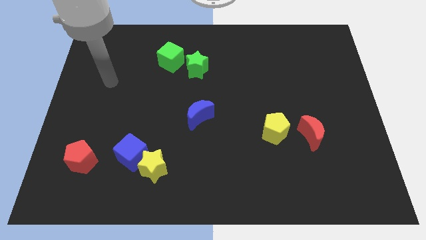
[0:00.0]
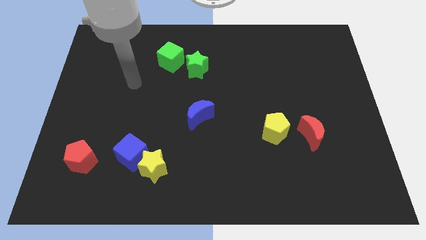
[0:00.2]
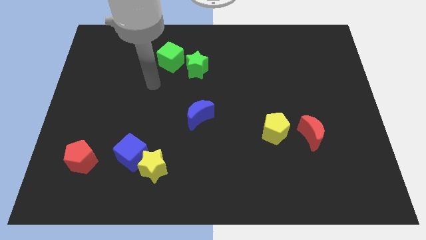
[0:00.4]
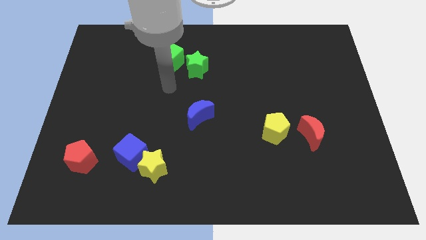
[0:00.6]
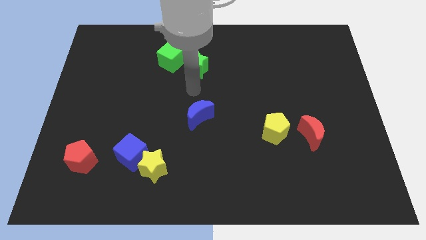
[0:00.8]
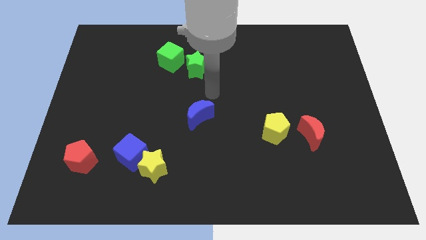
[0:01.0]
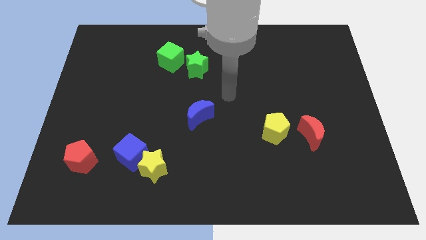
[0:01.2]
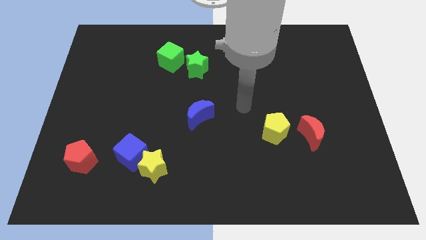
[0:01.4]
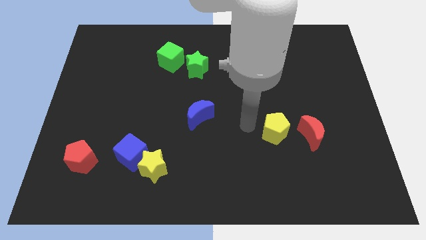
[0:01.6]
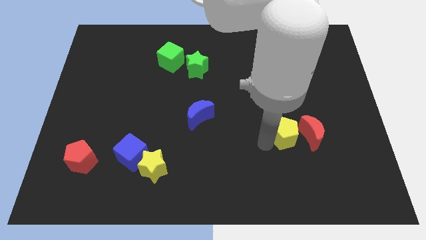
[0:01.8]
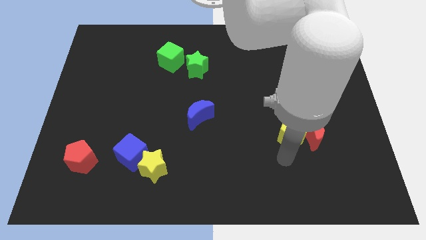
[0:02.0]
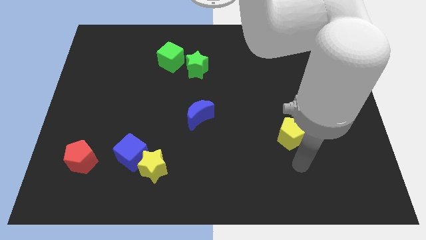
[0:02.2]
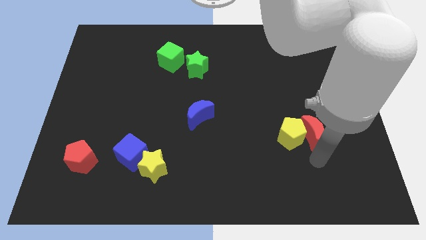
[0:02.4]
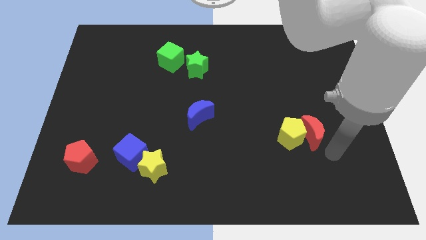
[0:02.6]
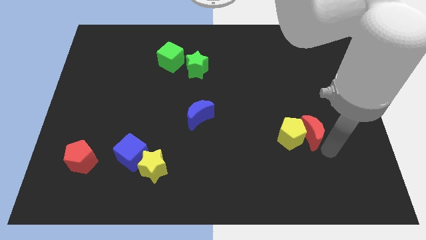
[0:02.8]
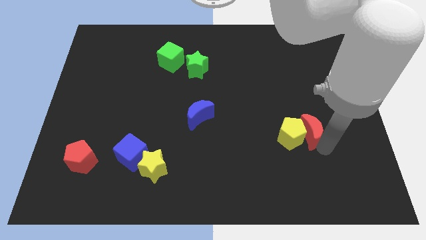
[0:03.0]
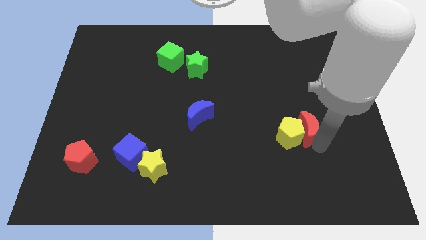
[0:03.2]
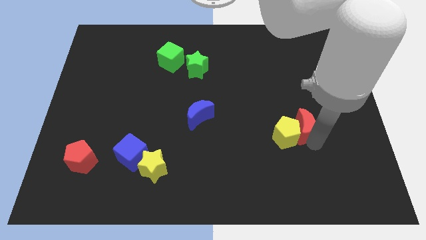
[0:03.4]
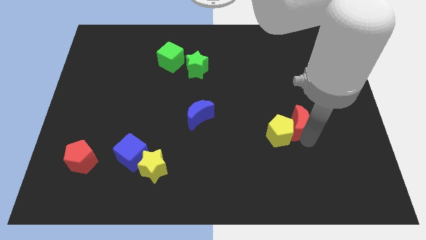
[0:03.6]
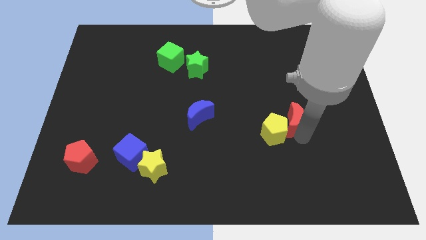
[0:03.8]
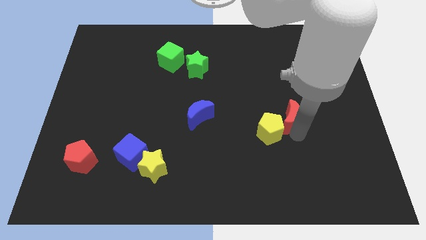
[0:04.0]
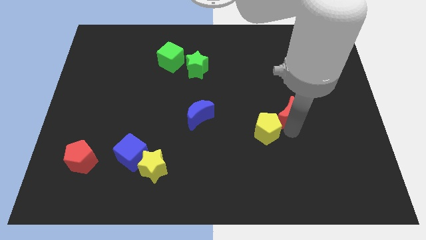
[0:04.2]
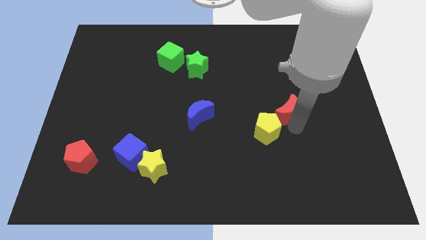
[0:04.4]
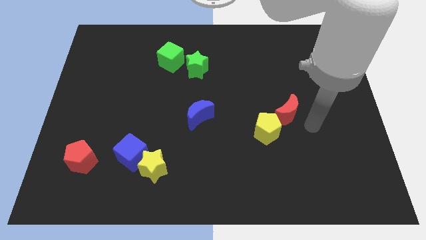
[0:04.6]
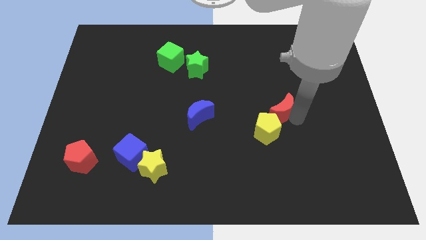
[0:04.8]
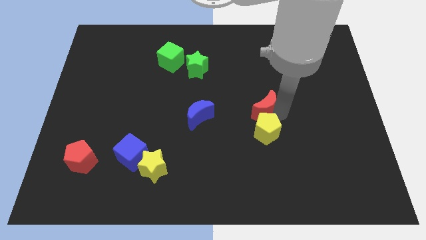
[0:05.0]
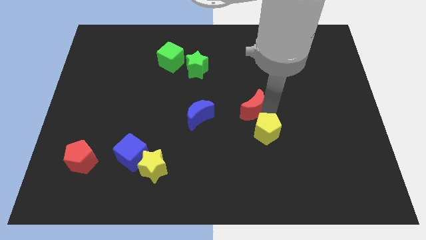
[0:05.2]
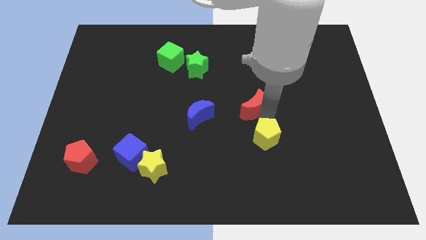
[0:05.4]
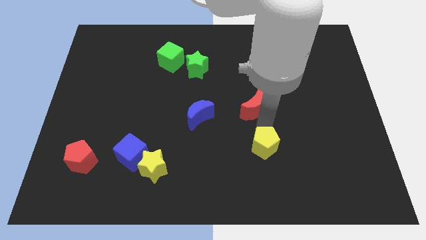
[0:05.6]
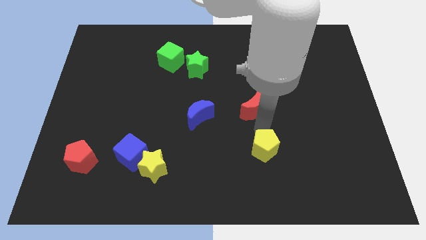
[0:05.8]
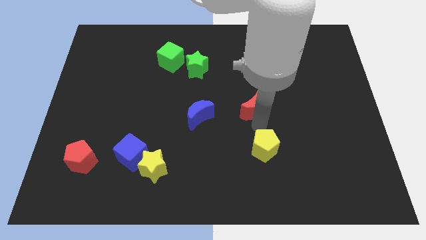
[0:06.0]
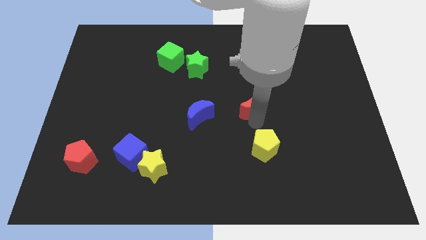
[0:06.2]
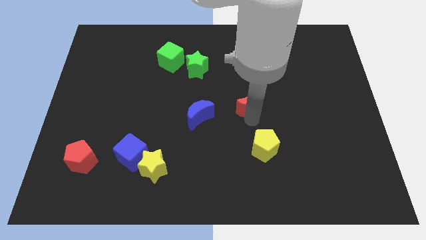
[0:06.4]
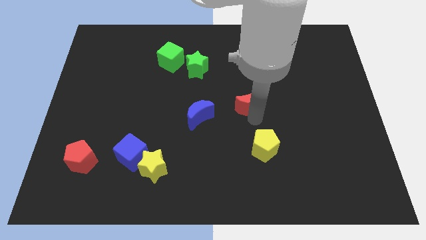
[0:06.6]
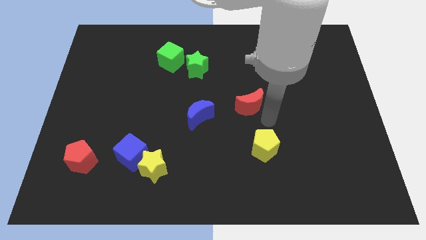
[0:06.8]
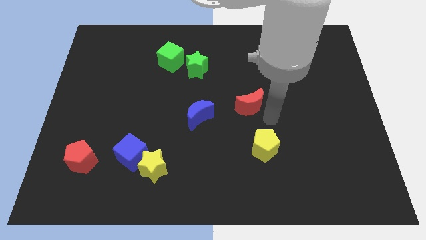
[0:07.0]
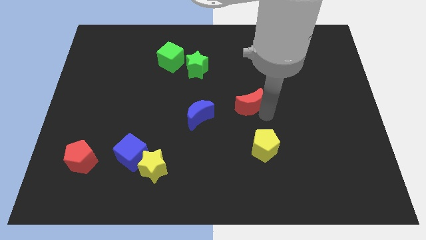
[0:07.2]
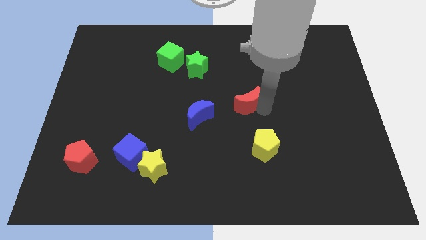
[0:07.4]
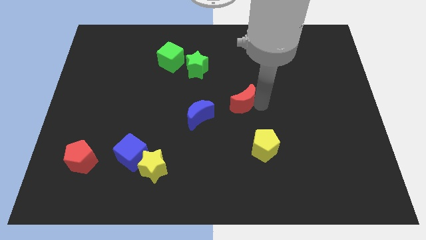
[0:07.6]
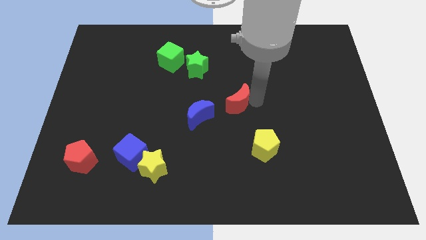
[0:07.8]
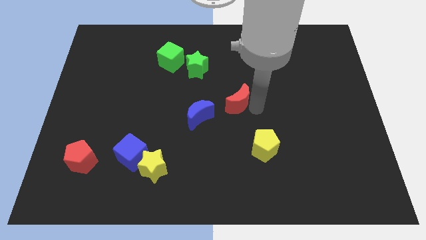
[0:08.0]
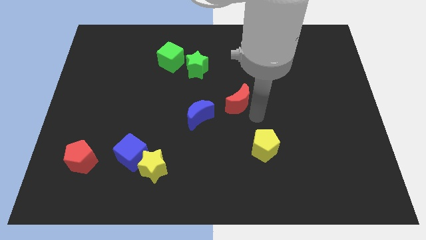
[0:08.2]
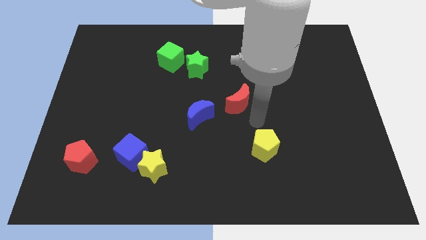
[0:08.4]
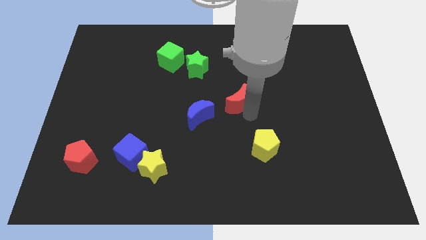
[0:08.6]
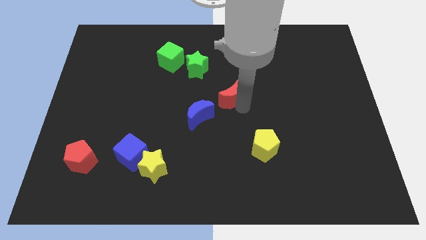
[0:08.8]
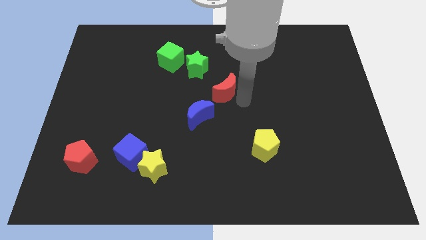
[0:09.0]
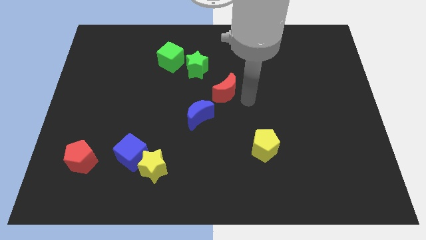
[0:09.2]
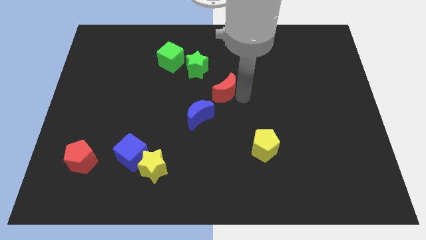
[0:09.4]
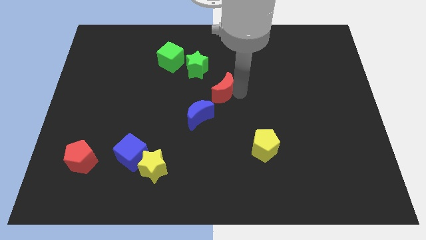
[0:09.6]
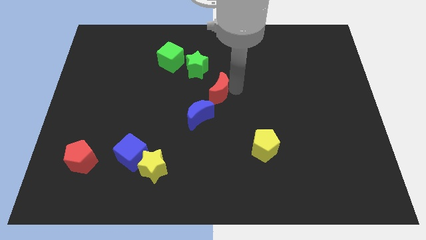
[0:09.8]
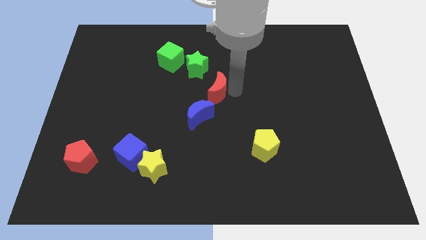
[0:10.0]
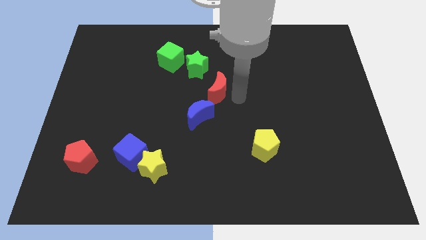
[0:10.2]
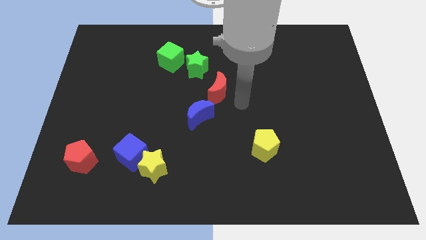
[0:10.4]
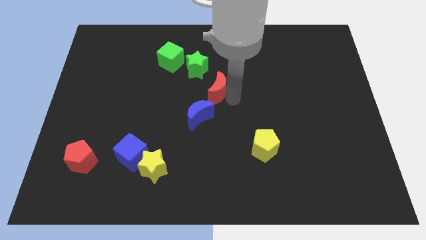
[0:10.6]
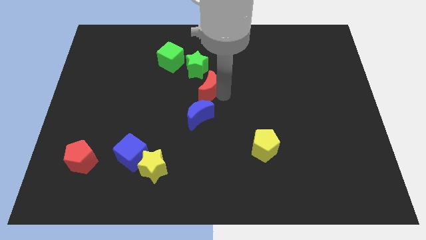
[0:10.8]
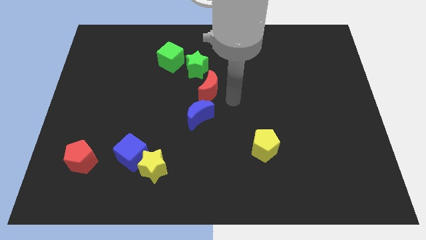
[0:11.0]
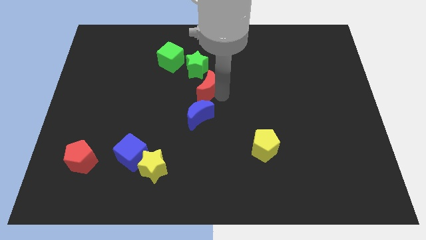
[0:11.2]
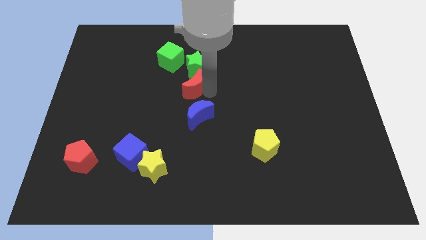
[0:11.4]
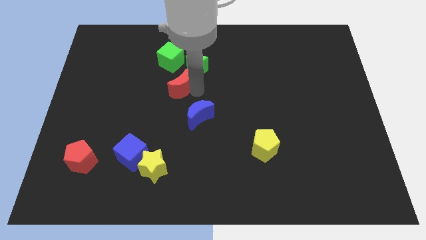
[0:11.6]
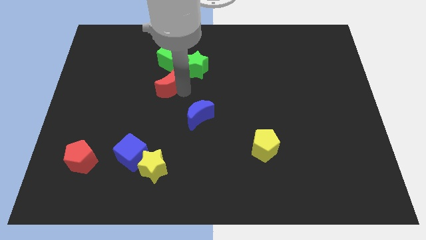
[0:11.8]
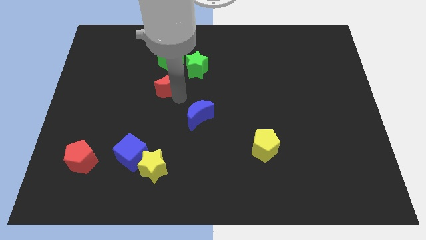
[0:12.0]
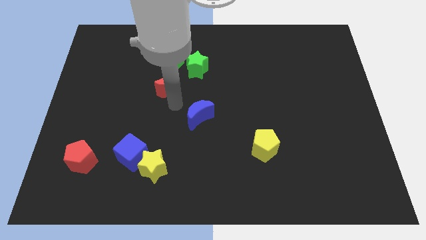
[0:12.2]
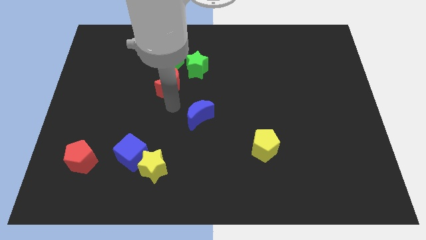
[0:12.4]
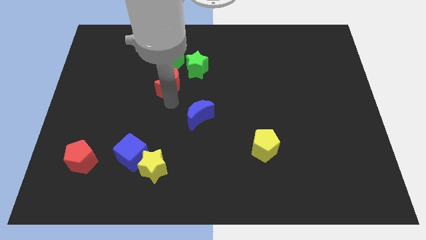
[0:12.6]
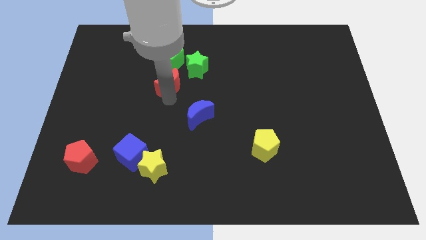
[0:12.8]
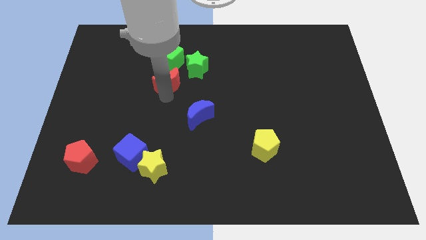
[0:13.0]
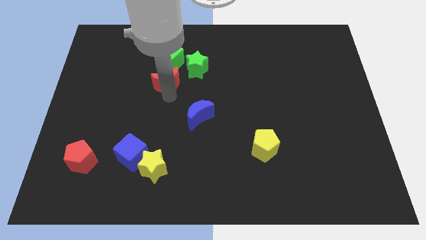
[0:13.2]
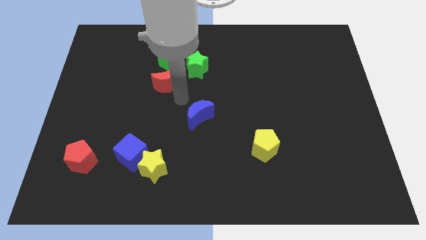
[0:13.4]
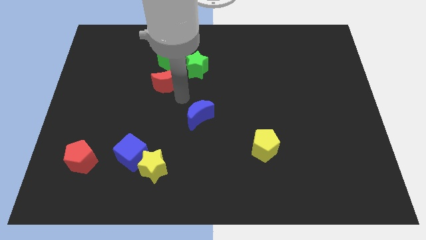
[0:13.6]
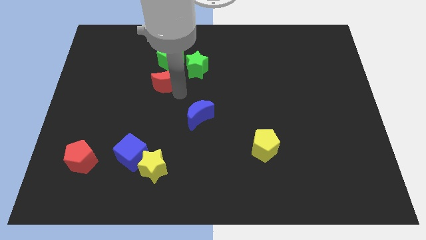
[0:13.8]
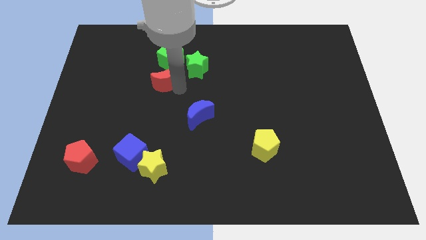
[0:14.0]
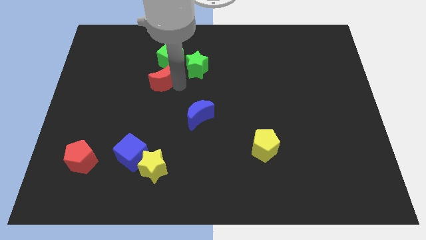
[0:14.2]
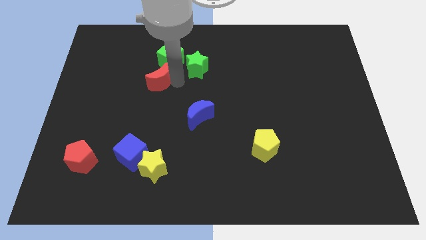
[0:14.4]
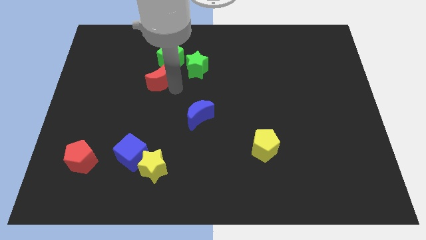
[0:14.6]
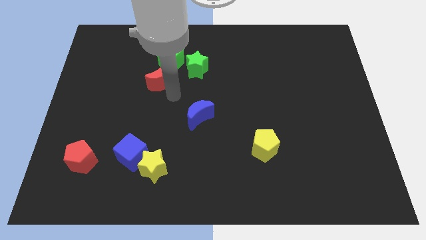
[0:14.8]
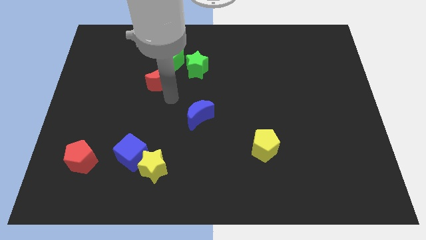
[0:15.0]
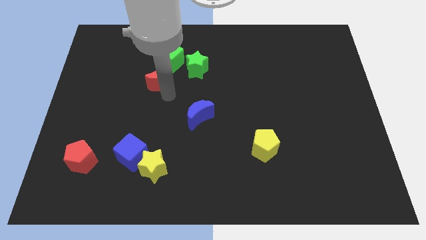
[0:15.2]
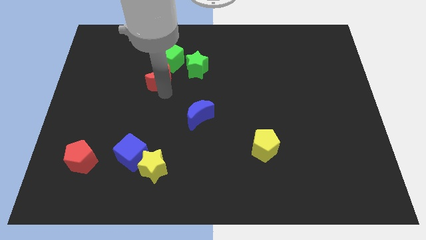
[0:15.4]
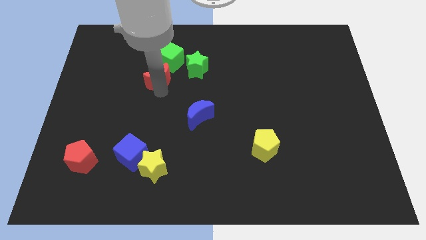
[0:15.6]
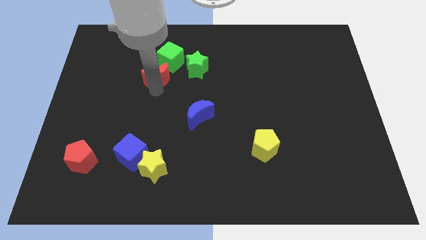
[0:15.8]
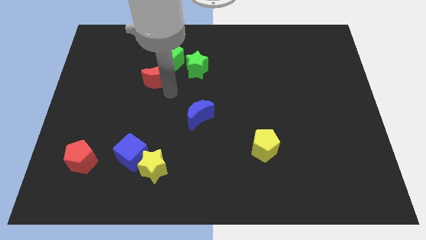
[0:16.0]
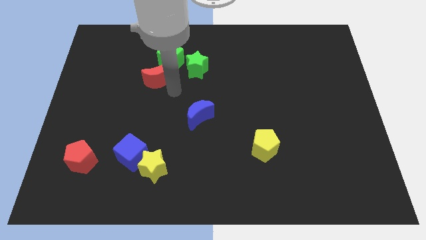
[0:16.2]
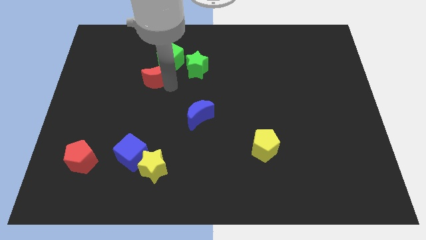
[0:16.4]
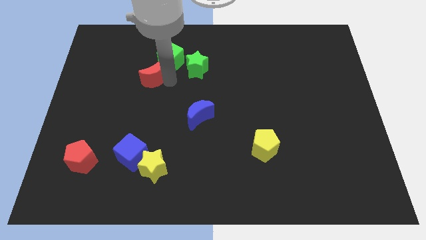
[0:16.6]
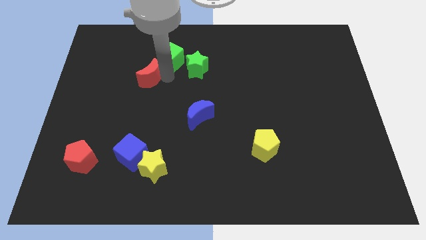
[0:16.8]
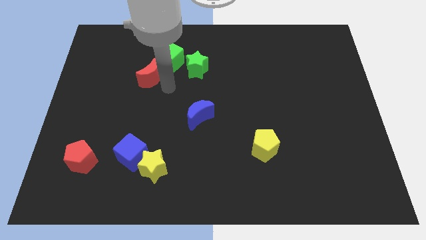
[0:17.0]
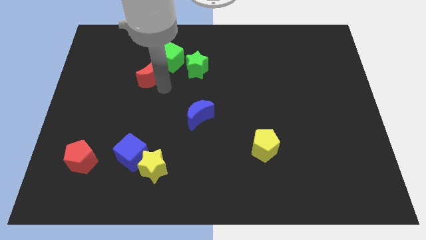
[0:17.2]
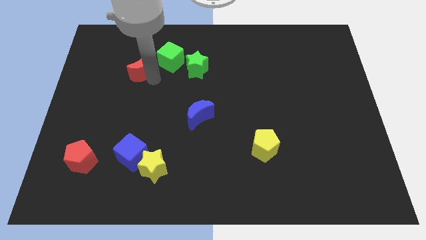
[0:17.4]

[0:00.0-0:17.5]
push the red moon just left of the green cube
